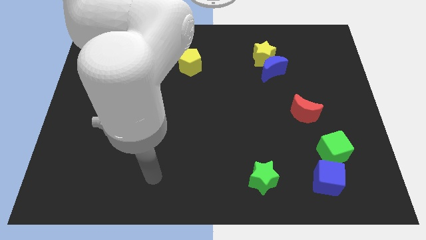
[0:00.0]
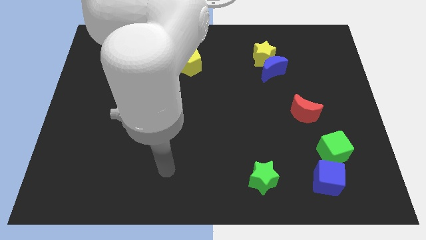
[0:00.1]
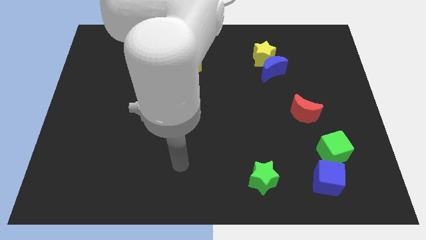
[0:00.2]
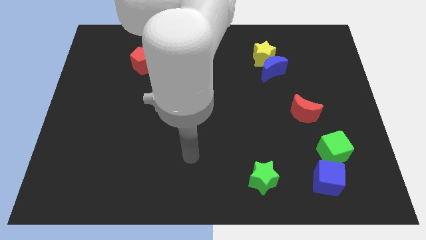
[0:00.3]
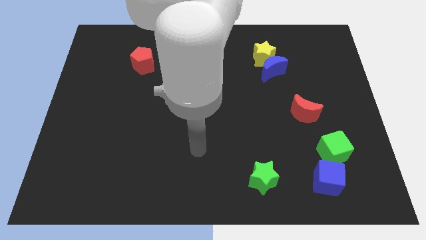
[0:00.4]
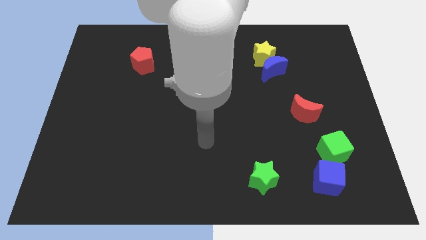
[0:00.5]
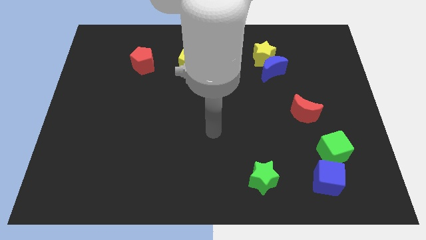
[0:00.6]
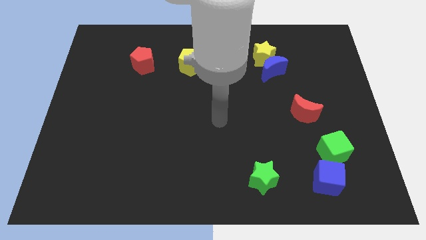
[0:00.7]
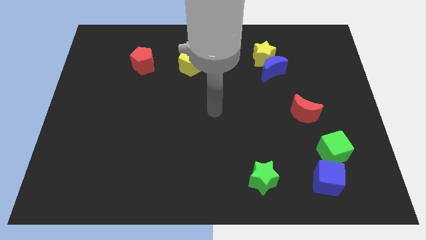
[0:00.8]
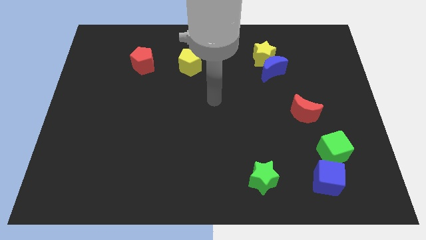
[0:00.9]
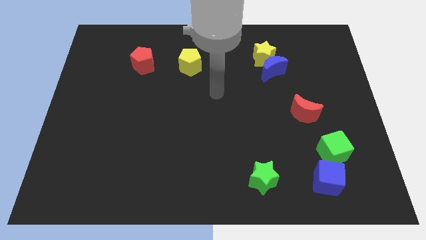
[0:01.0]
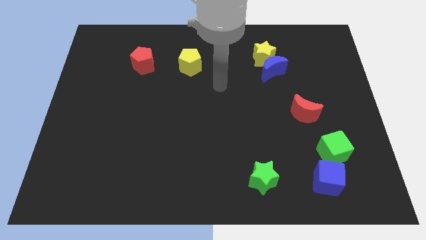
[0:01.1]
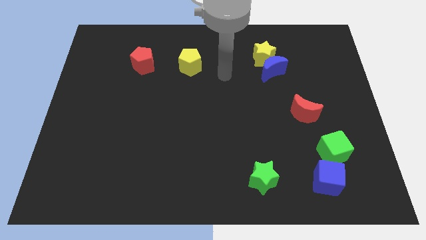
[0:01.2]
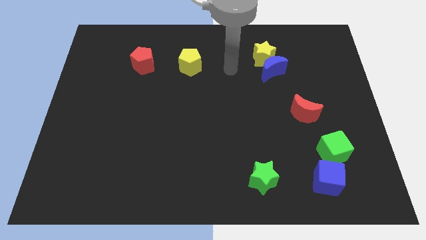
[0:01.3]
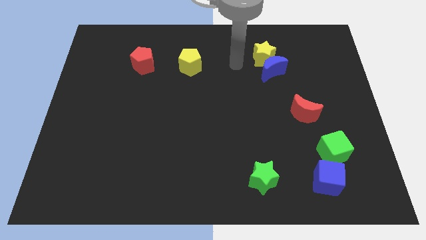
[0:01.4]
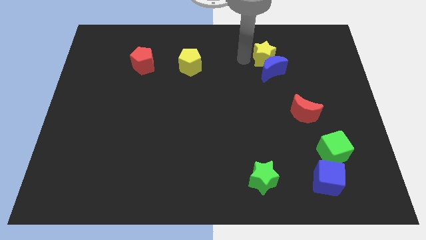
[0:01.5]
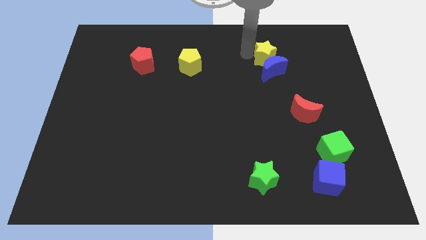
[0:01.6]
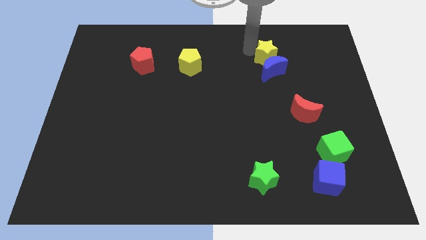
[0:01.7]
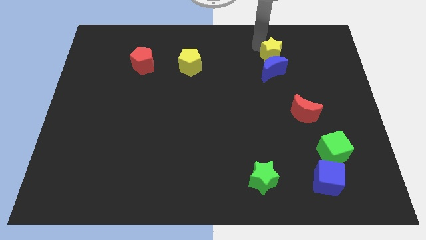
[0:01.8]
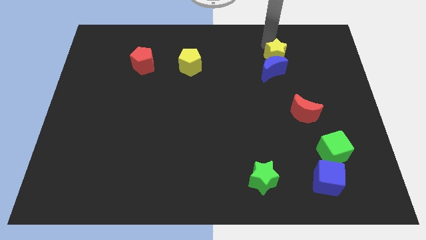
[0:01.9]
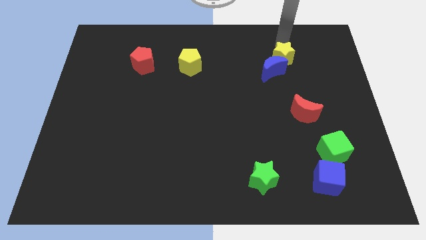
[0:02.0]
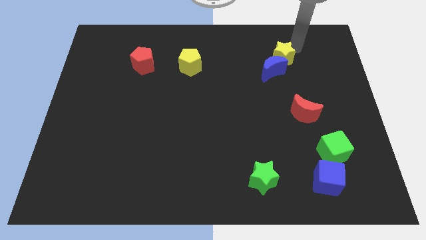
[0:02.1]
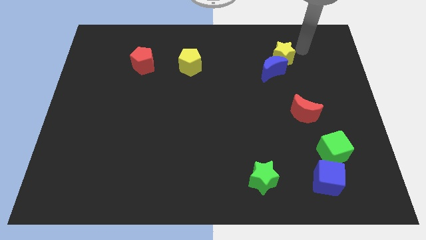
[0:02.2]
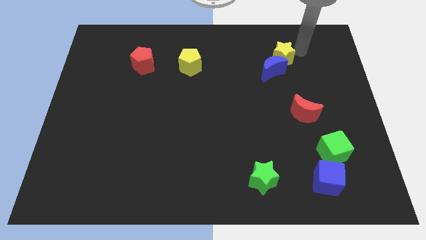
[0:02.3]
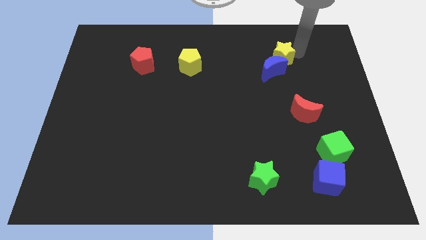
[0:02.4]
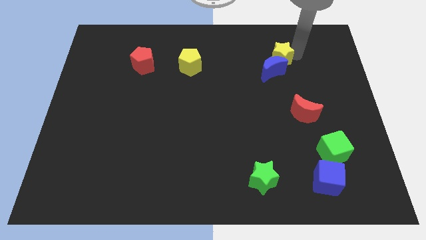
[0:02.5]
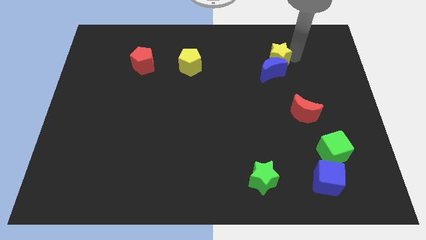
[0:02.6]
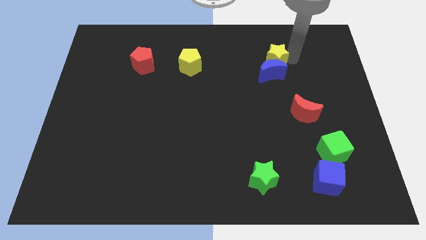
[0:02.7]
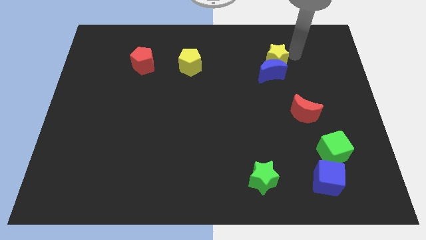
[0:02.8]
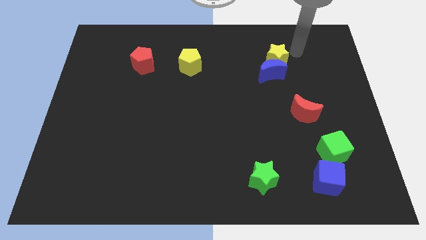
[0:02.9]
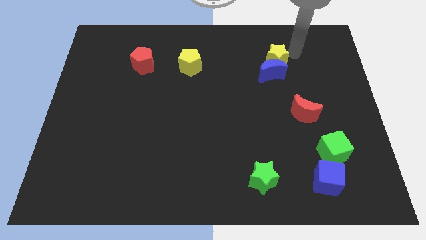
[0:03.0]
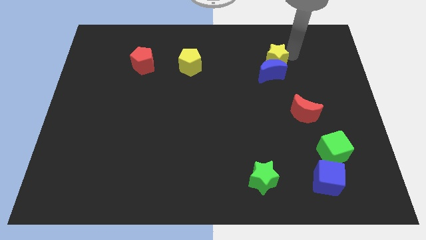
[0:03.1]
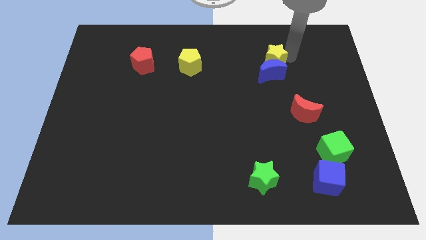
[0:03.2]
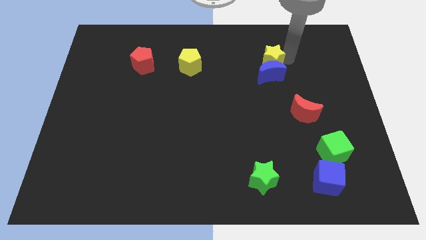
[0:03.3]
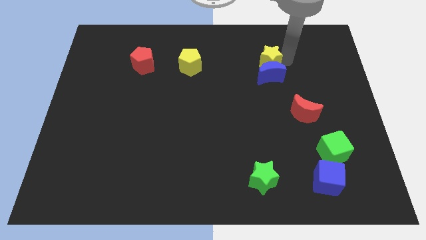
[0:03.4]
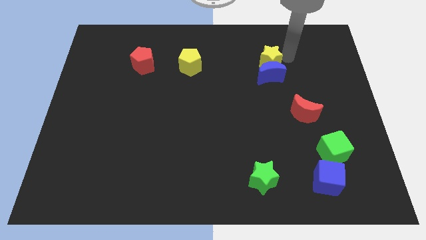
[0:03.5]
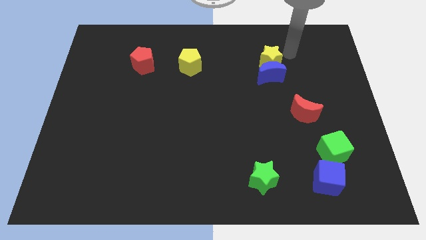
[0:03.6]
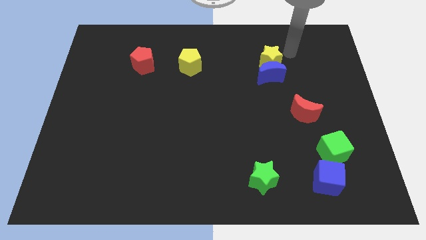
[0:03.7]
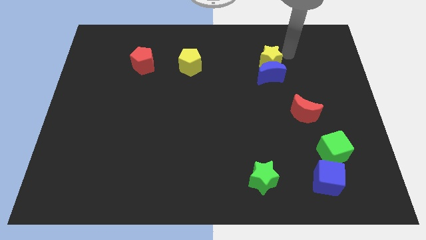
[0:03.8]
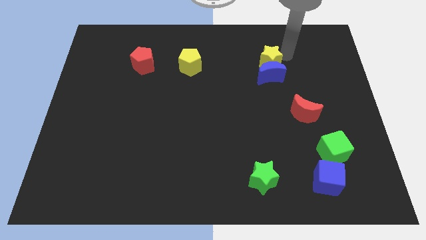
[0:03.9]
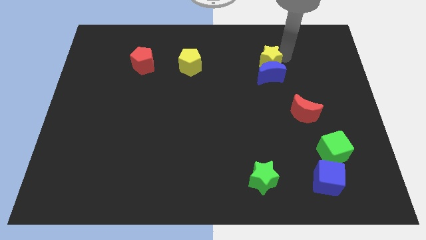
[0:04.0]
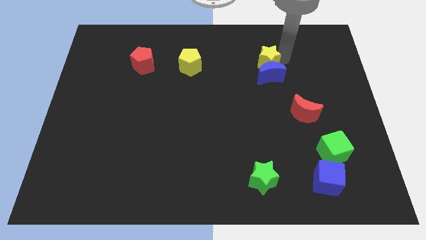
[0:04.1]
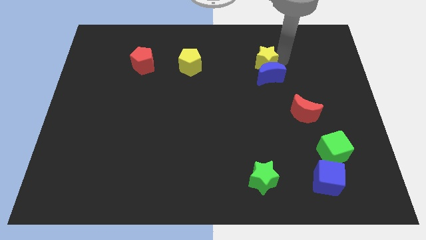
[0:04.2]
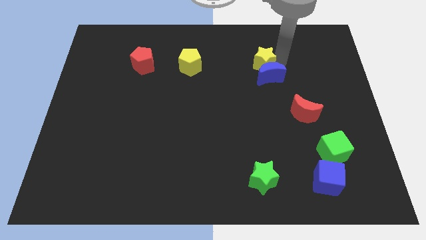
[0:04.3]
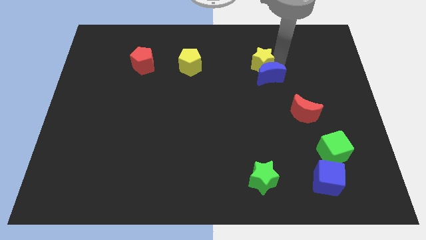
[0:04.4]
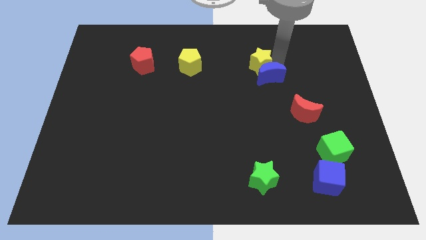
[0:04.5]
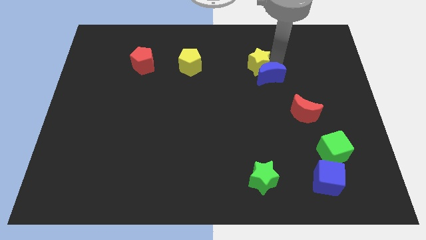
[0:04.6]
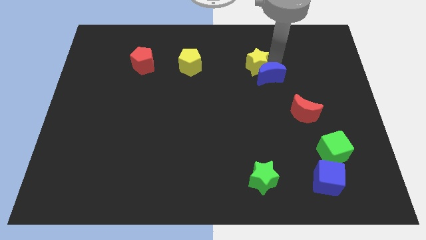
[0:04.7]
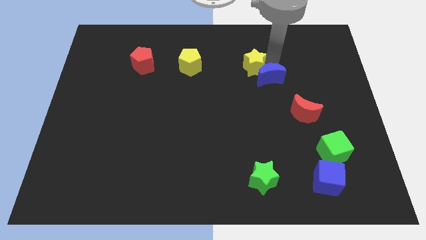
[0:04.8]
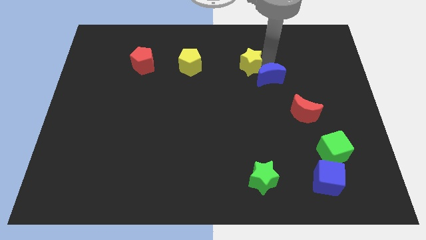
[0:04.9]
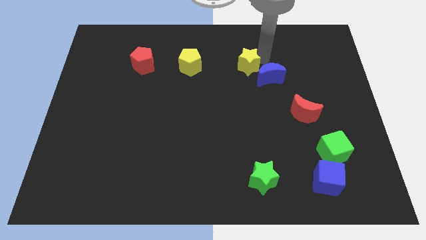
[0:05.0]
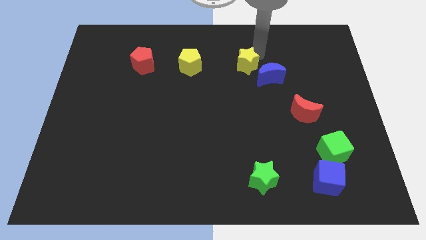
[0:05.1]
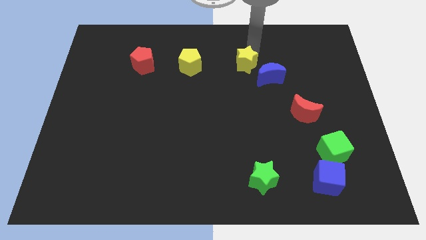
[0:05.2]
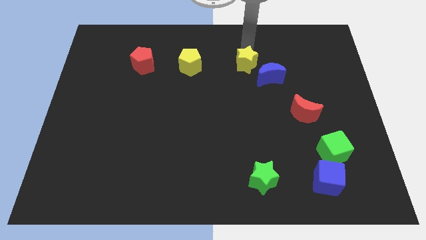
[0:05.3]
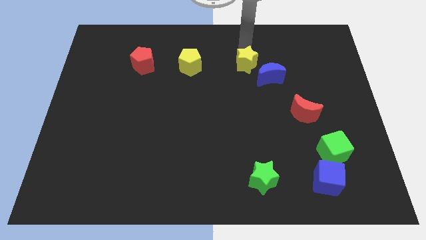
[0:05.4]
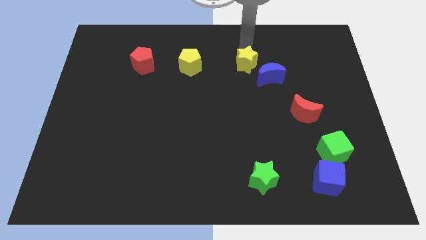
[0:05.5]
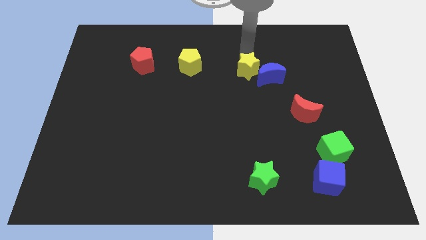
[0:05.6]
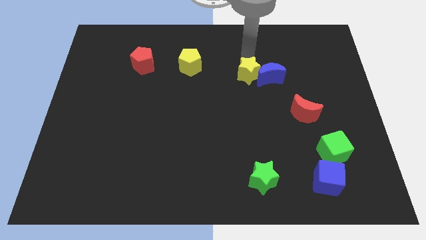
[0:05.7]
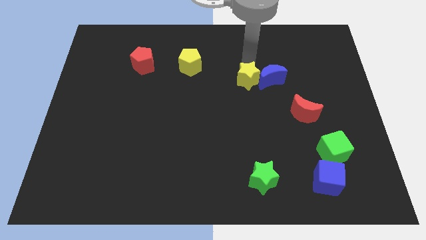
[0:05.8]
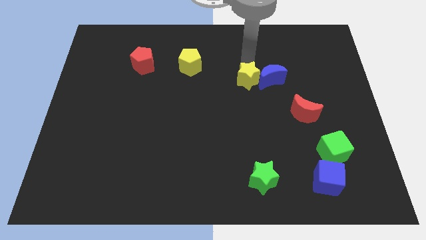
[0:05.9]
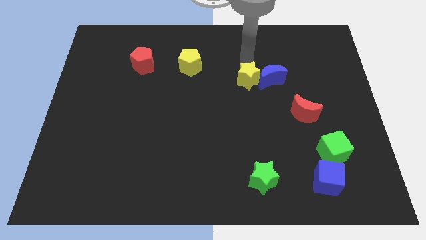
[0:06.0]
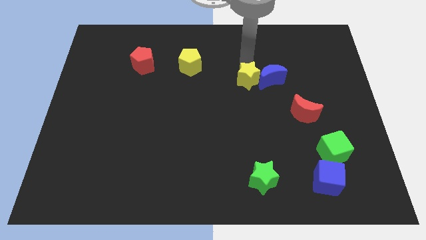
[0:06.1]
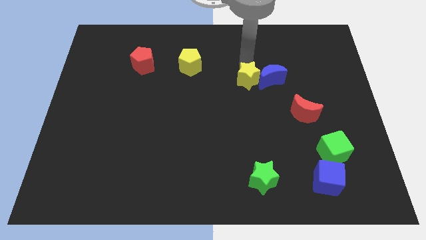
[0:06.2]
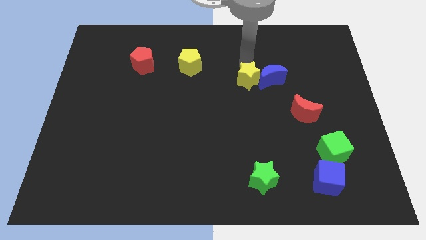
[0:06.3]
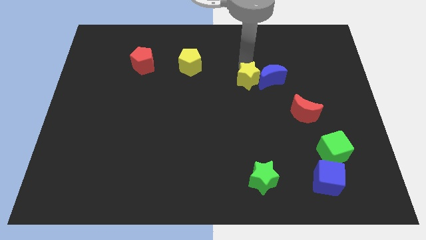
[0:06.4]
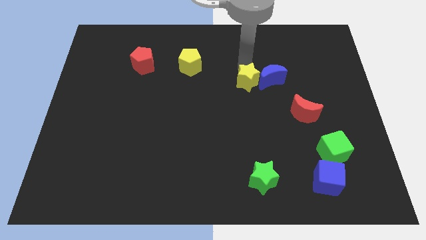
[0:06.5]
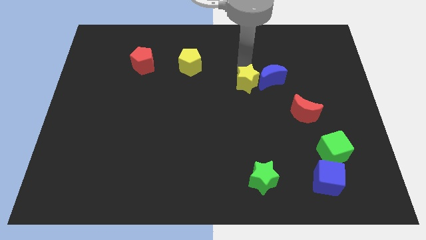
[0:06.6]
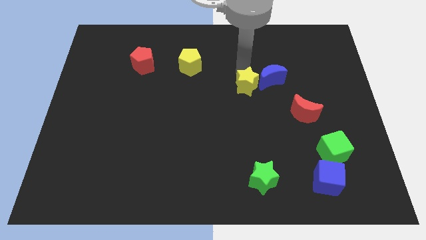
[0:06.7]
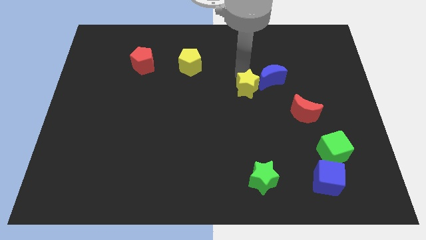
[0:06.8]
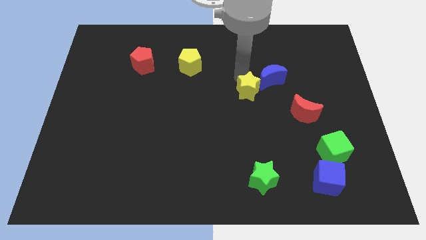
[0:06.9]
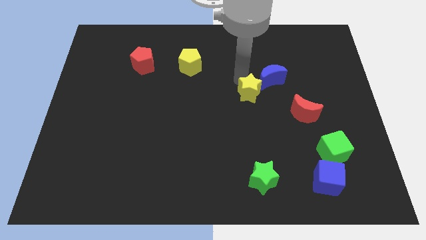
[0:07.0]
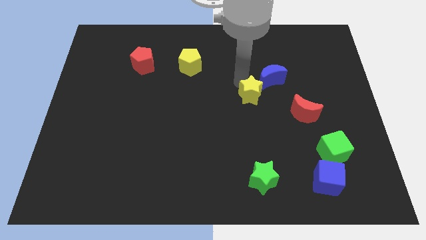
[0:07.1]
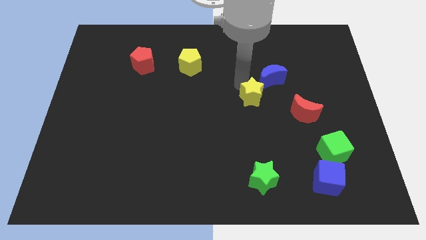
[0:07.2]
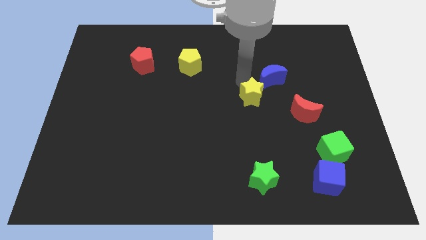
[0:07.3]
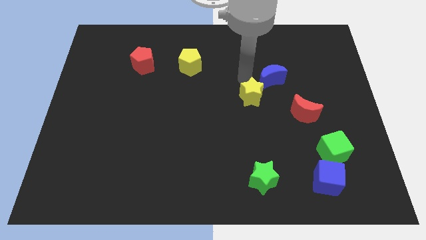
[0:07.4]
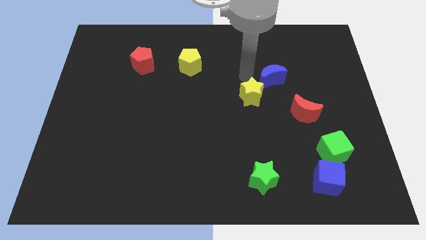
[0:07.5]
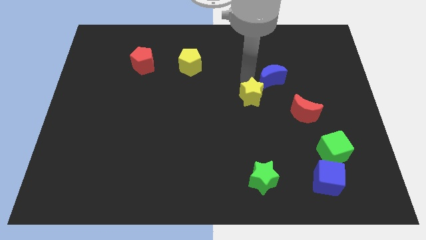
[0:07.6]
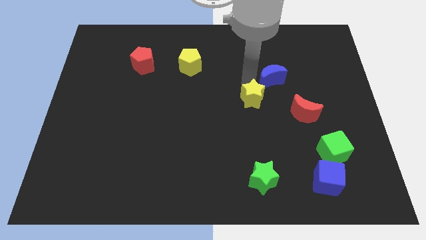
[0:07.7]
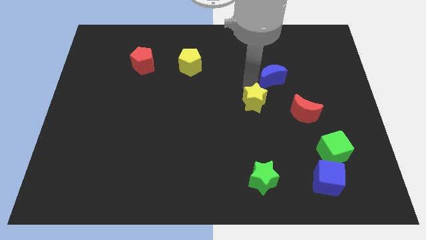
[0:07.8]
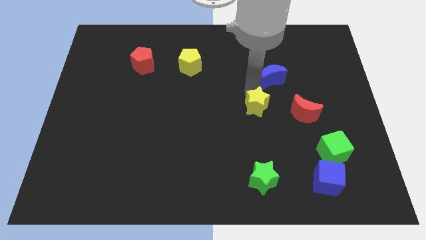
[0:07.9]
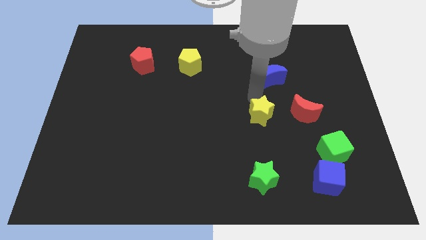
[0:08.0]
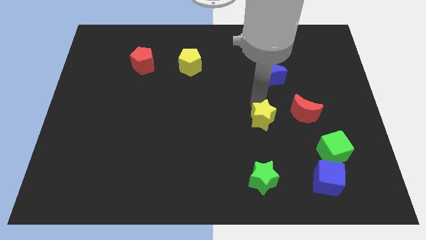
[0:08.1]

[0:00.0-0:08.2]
slide the yellow star downwards
